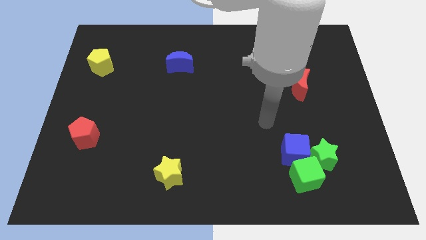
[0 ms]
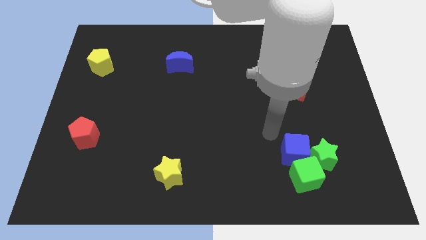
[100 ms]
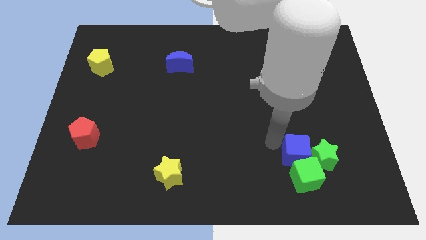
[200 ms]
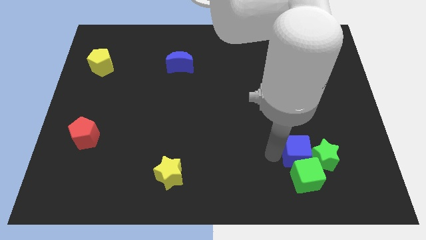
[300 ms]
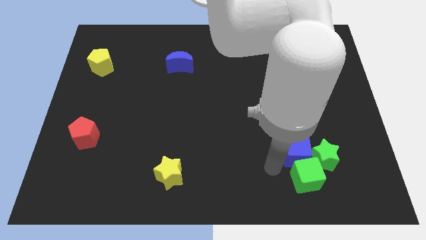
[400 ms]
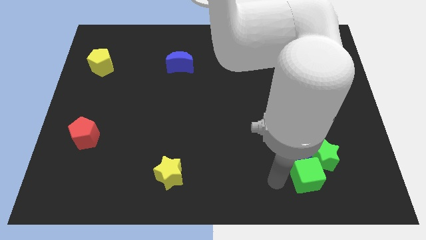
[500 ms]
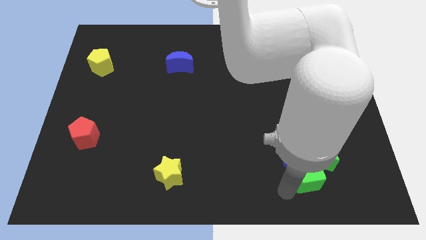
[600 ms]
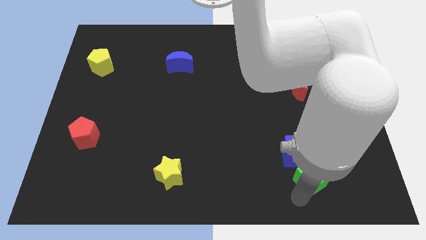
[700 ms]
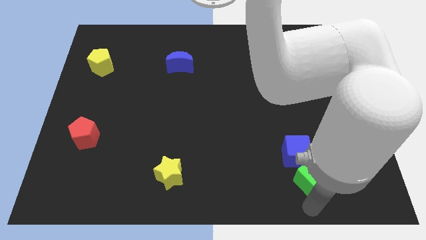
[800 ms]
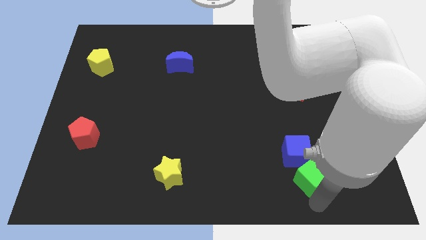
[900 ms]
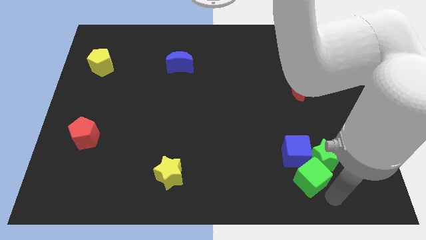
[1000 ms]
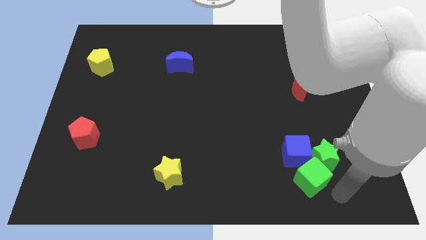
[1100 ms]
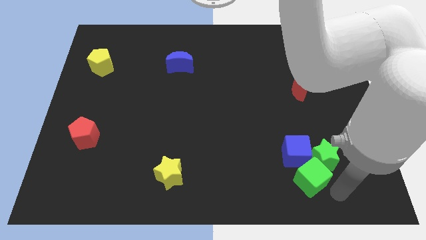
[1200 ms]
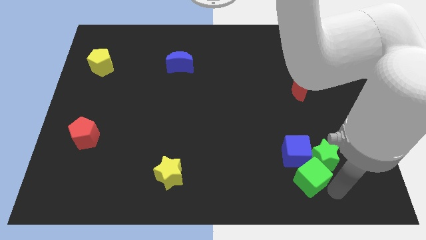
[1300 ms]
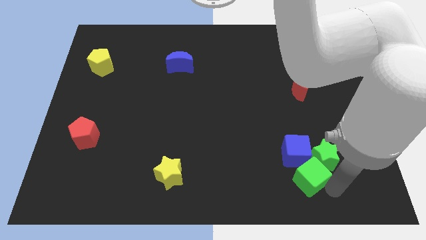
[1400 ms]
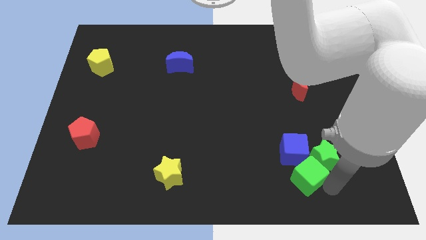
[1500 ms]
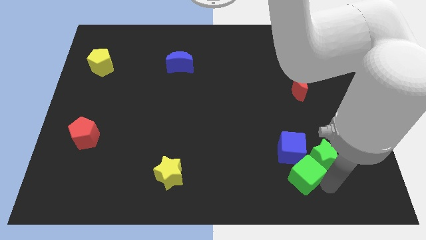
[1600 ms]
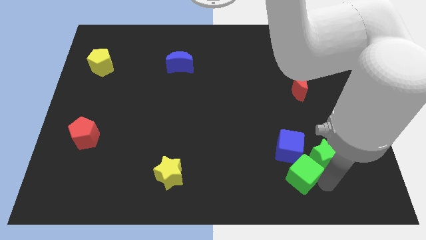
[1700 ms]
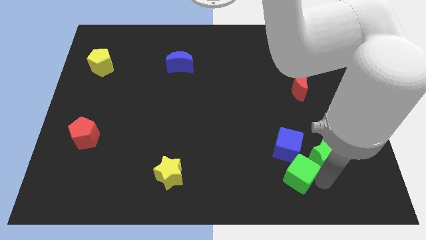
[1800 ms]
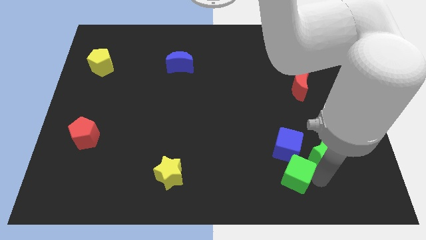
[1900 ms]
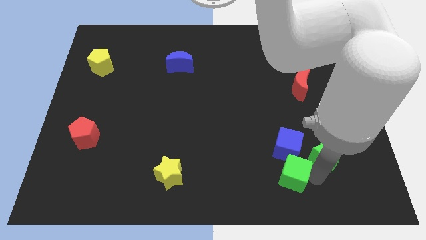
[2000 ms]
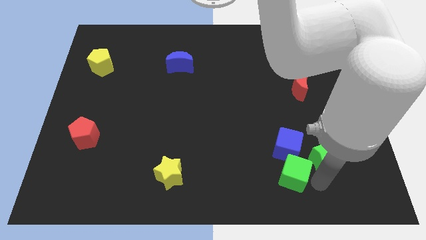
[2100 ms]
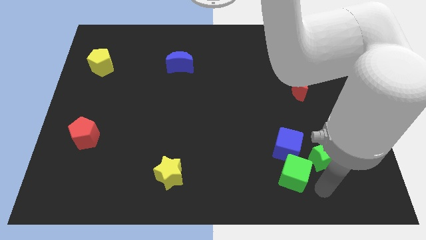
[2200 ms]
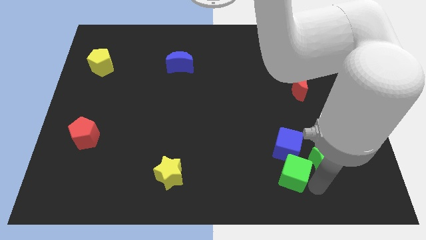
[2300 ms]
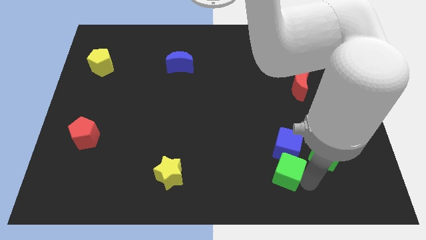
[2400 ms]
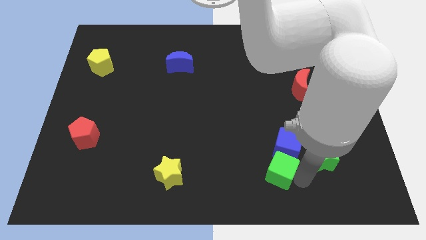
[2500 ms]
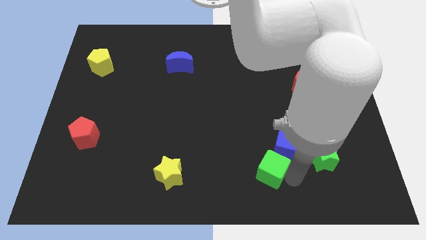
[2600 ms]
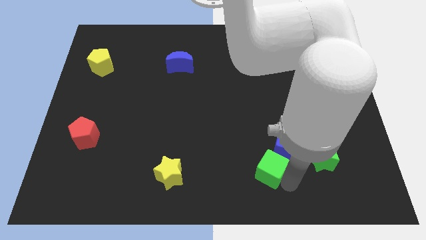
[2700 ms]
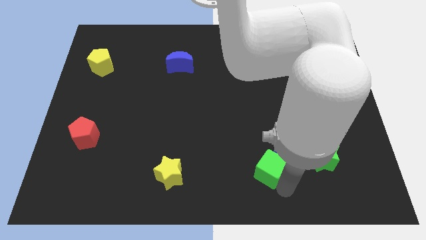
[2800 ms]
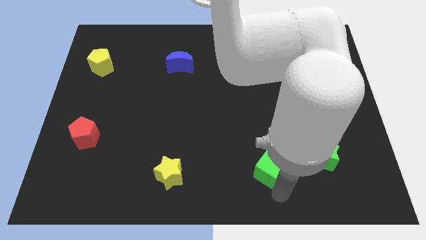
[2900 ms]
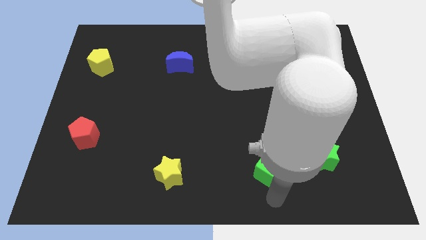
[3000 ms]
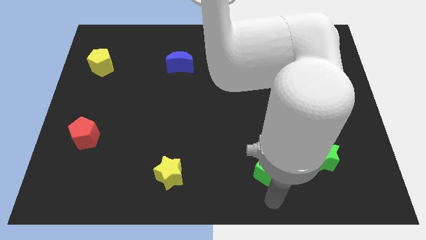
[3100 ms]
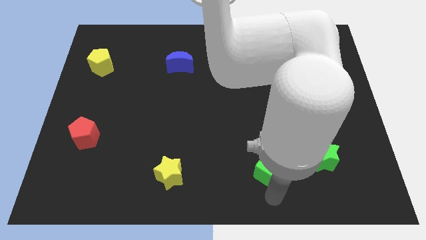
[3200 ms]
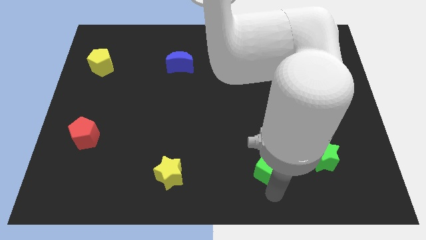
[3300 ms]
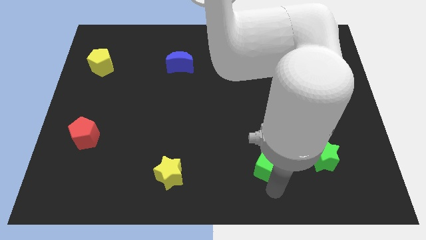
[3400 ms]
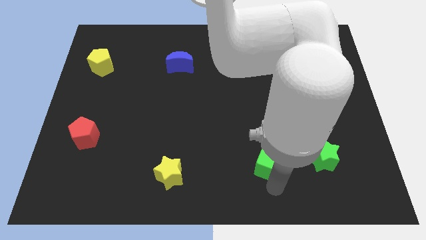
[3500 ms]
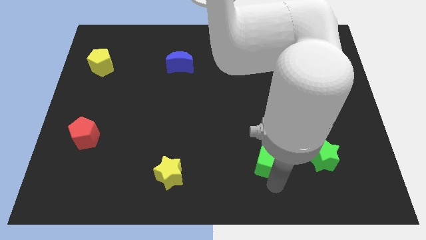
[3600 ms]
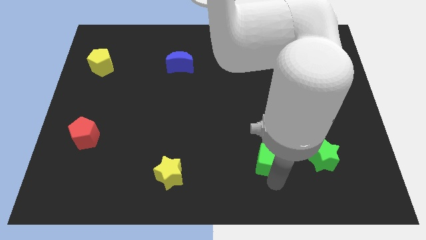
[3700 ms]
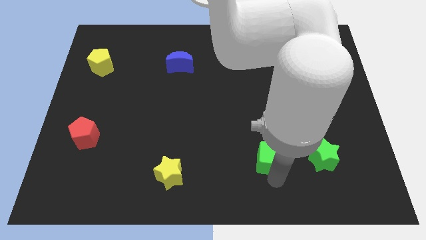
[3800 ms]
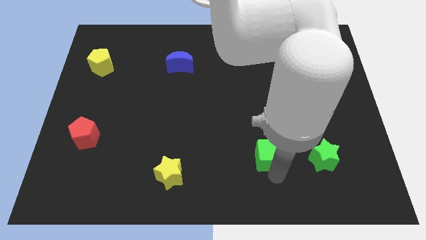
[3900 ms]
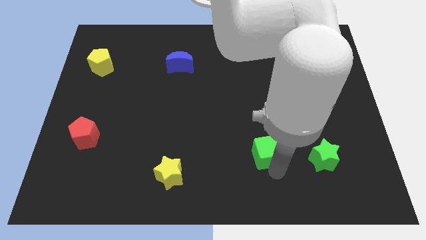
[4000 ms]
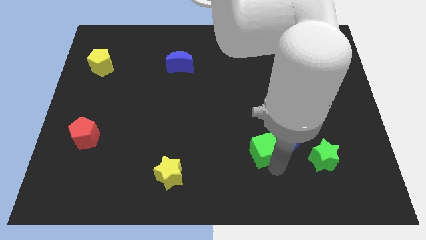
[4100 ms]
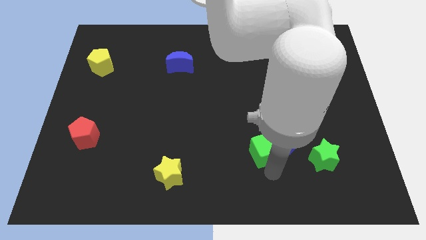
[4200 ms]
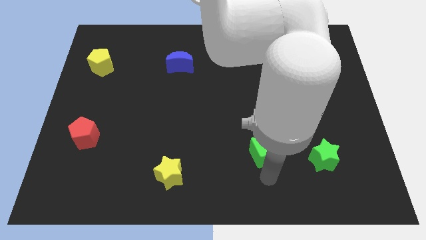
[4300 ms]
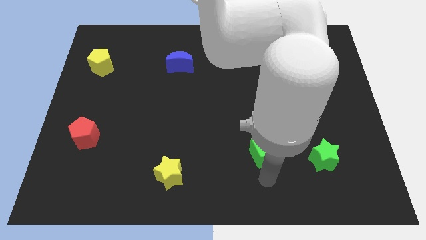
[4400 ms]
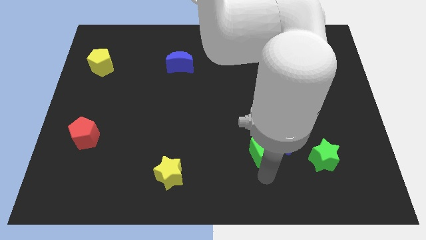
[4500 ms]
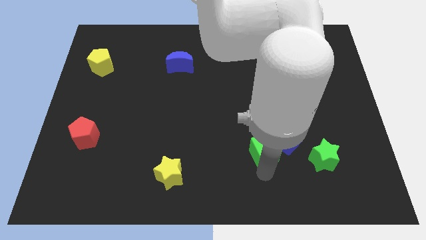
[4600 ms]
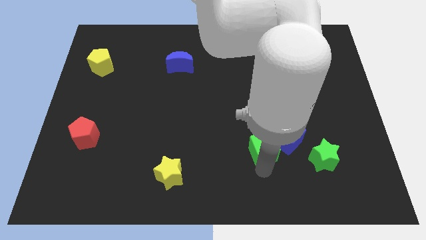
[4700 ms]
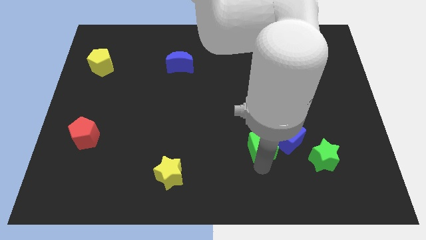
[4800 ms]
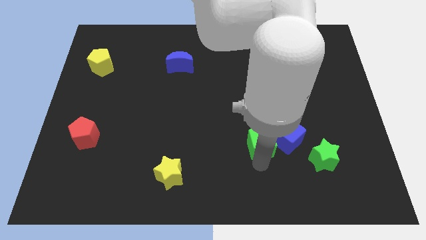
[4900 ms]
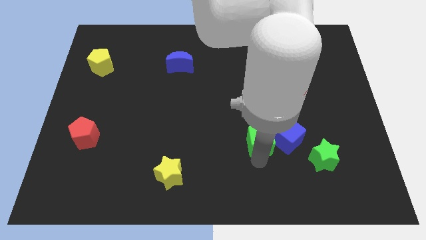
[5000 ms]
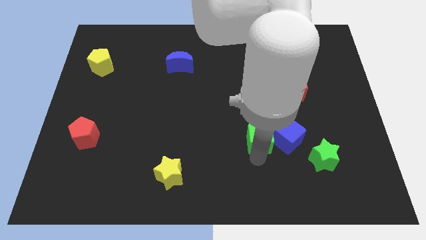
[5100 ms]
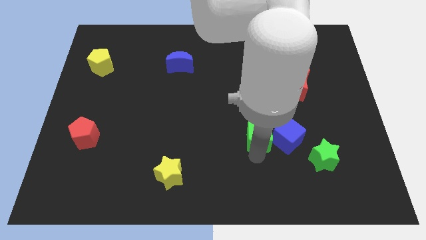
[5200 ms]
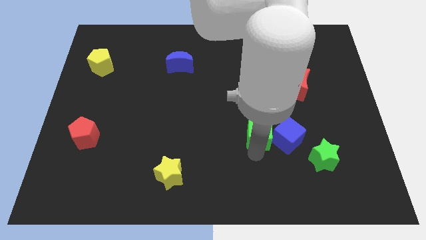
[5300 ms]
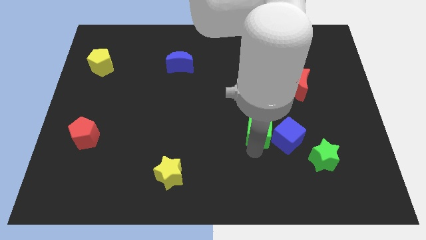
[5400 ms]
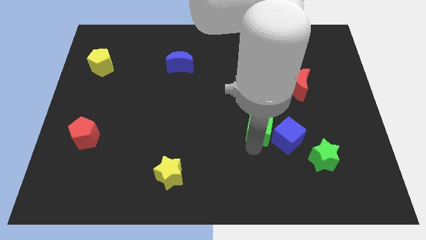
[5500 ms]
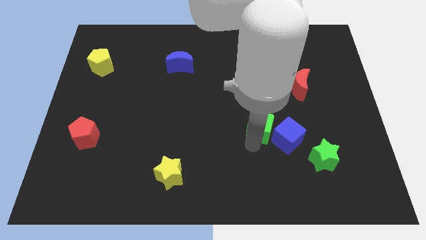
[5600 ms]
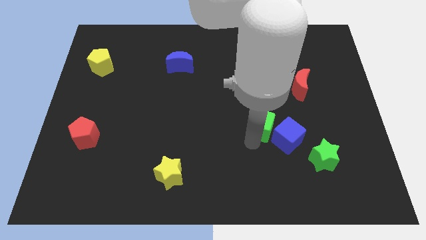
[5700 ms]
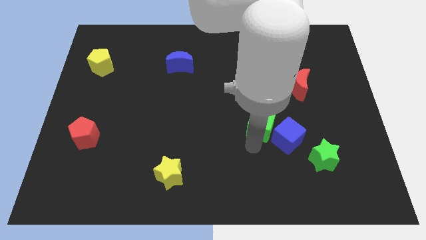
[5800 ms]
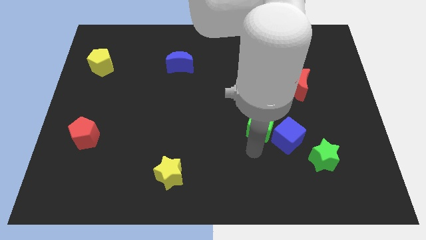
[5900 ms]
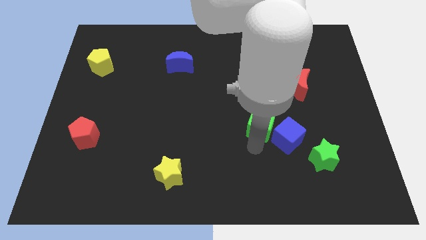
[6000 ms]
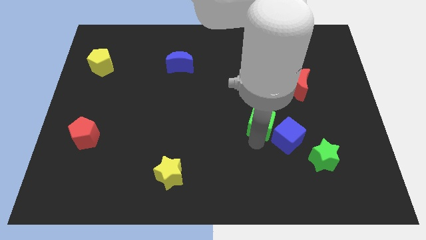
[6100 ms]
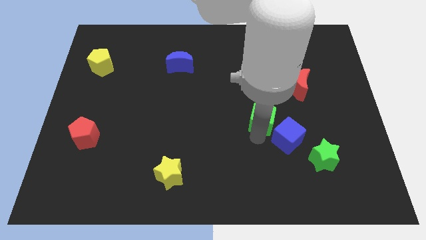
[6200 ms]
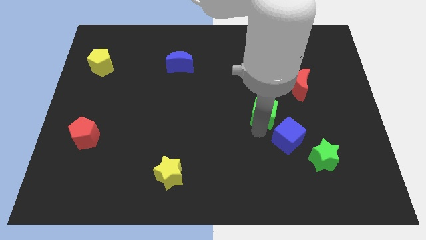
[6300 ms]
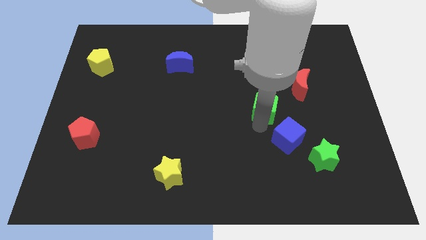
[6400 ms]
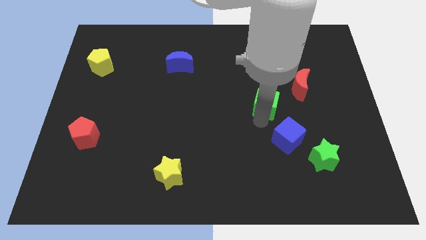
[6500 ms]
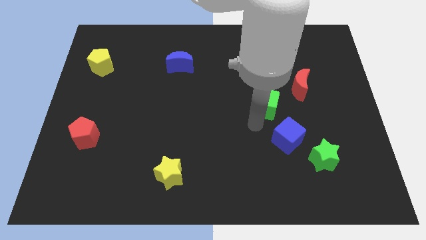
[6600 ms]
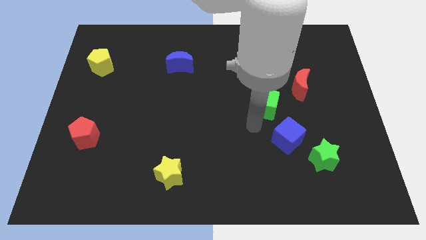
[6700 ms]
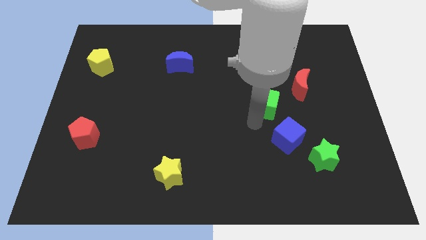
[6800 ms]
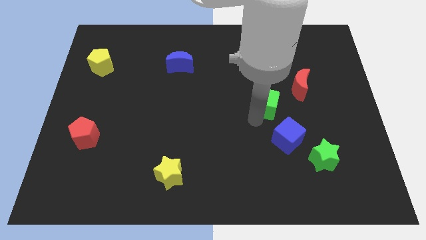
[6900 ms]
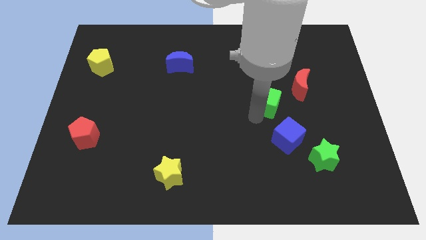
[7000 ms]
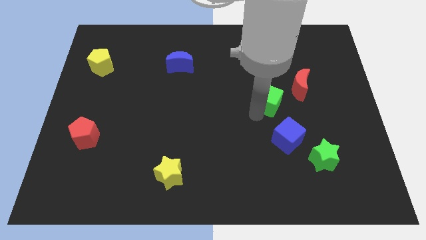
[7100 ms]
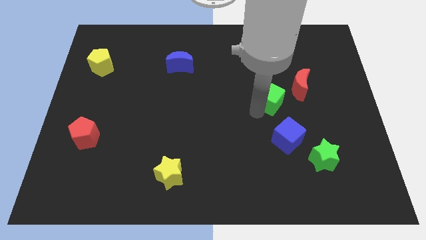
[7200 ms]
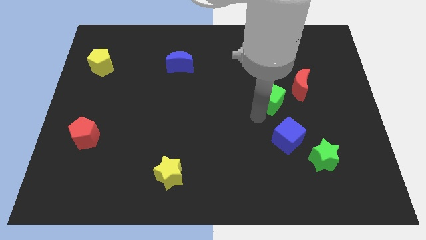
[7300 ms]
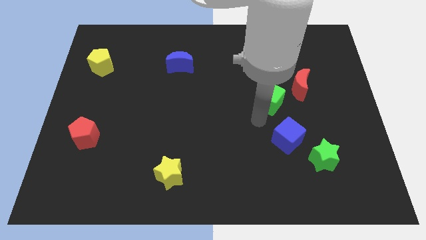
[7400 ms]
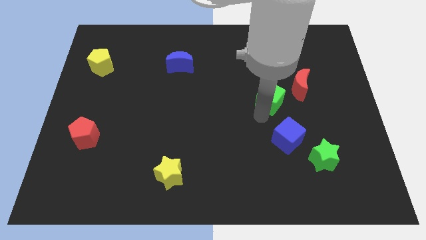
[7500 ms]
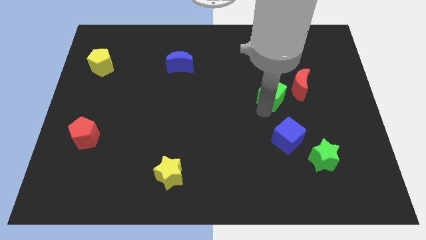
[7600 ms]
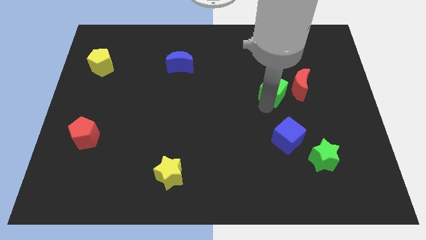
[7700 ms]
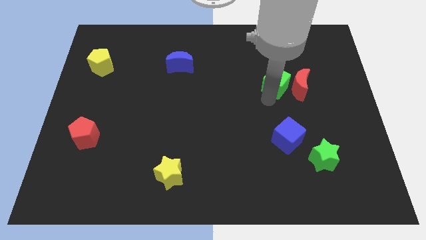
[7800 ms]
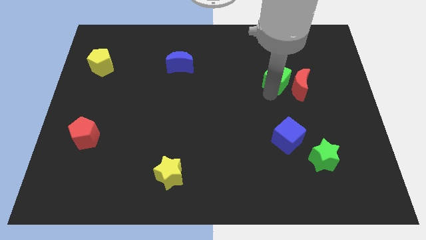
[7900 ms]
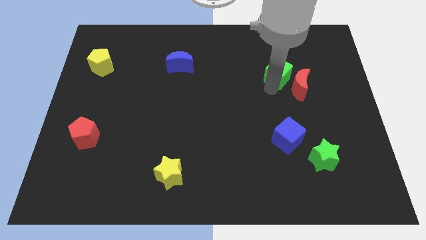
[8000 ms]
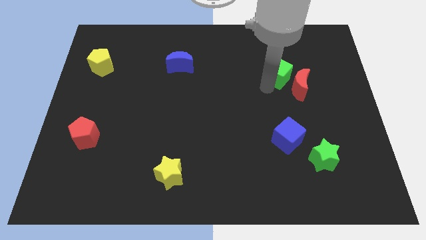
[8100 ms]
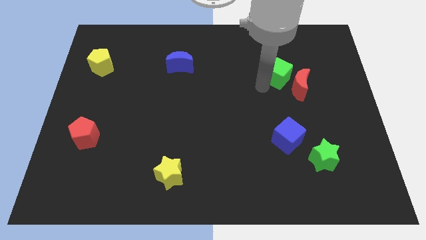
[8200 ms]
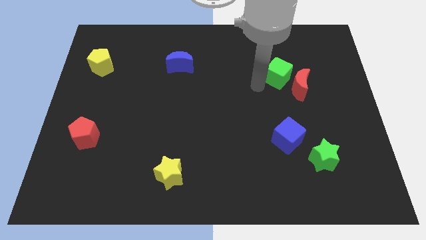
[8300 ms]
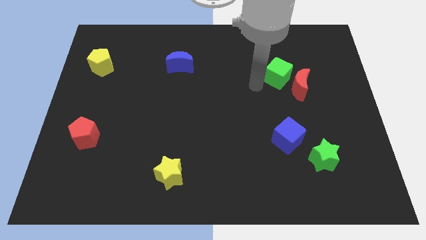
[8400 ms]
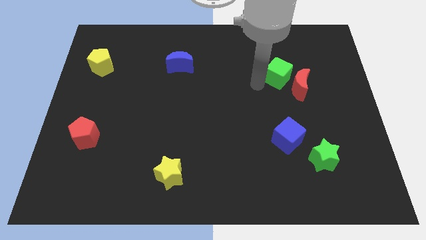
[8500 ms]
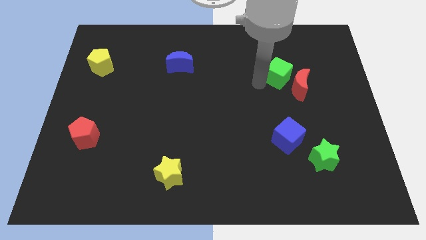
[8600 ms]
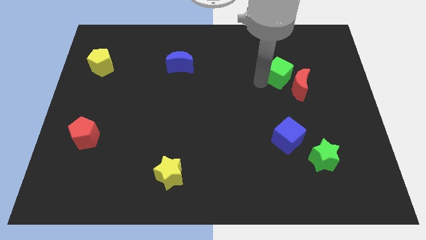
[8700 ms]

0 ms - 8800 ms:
slide the green cube to the top of the red moon
